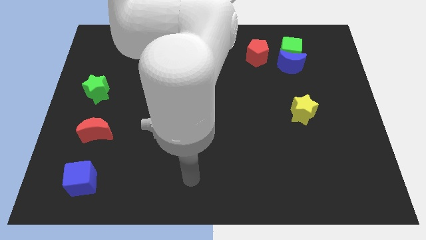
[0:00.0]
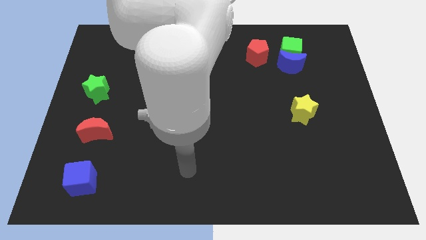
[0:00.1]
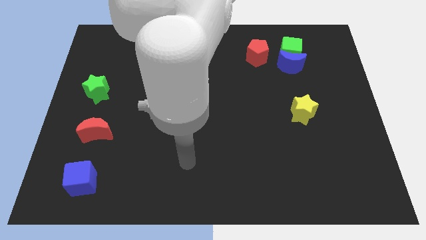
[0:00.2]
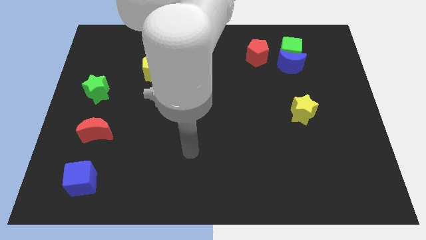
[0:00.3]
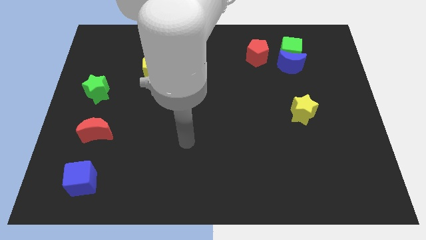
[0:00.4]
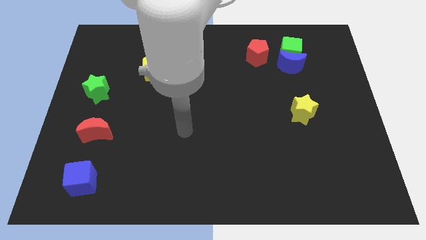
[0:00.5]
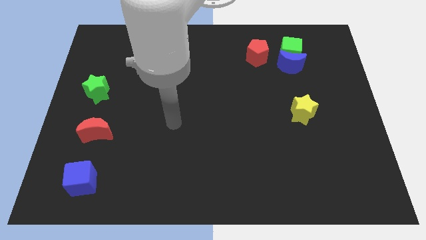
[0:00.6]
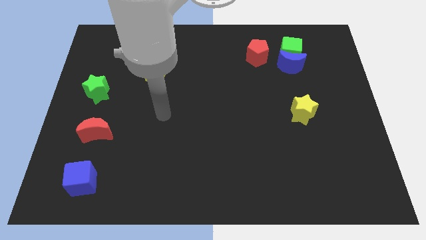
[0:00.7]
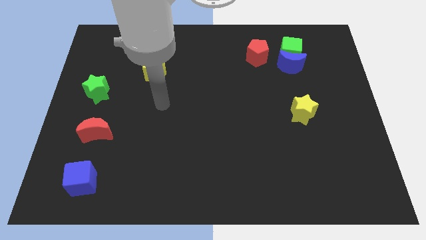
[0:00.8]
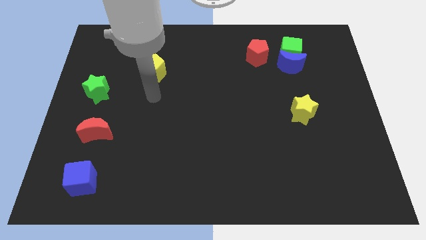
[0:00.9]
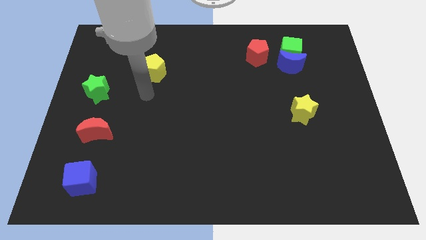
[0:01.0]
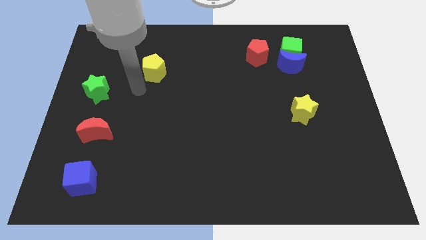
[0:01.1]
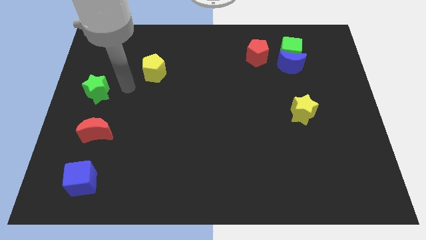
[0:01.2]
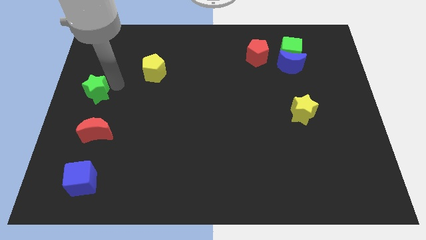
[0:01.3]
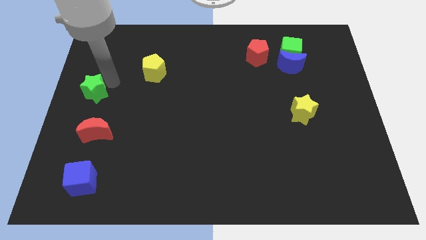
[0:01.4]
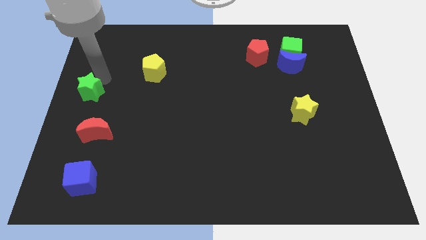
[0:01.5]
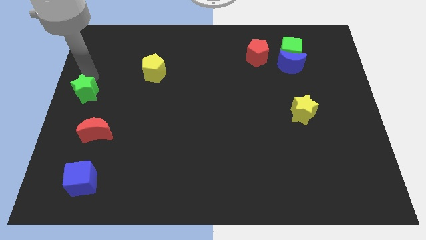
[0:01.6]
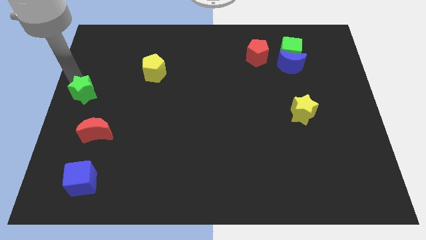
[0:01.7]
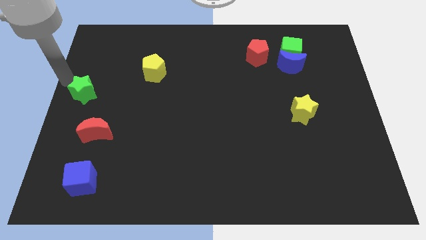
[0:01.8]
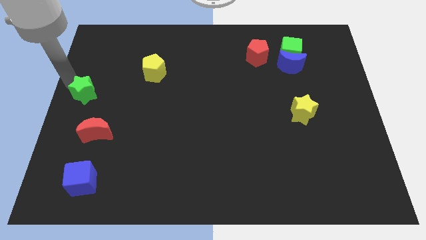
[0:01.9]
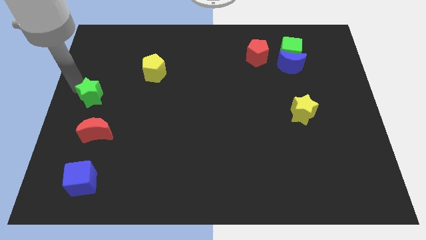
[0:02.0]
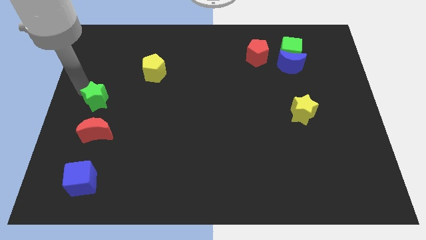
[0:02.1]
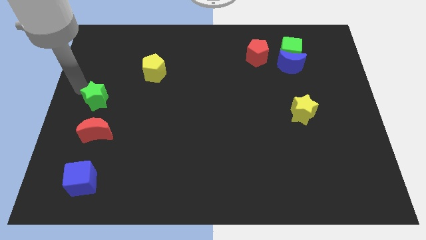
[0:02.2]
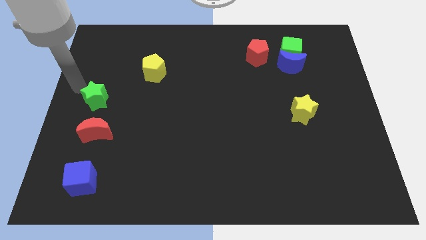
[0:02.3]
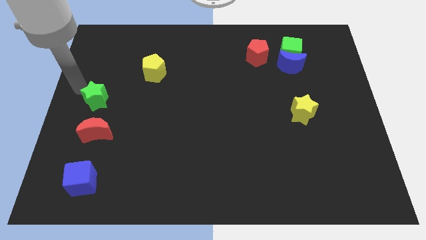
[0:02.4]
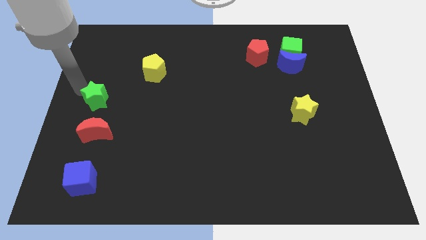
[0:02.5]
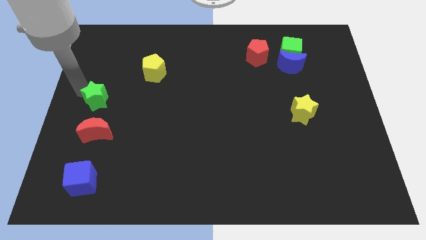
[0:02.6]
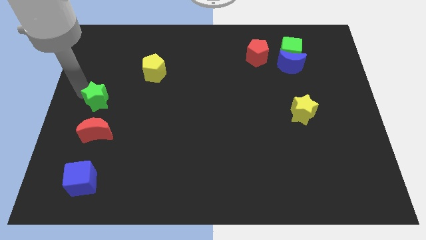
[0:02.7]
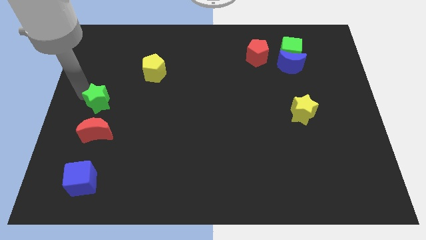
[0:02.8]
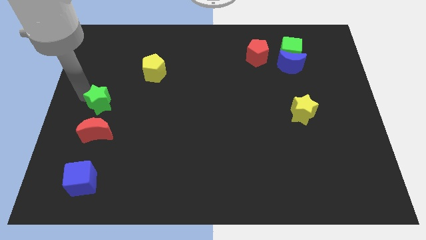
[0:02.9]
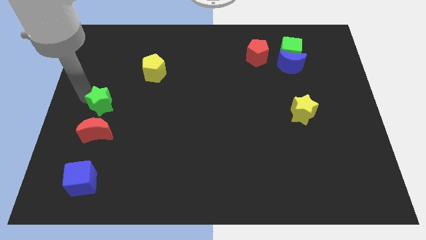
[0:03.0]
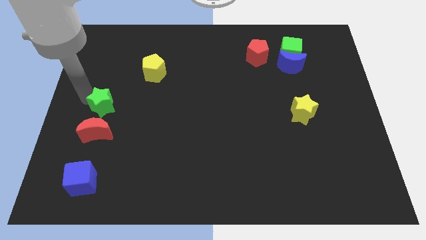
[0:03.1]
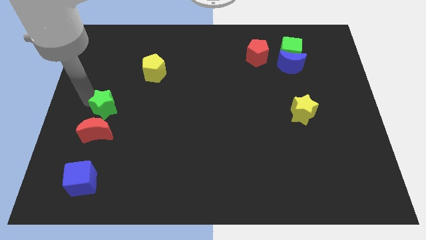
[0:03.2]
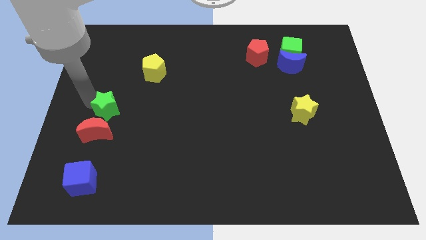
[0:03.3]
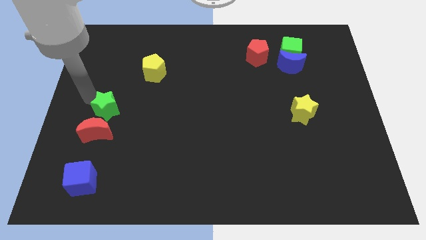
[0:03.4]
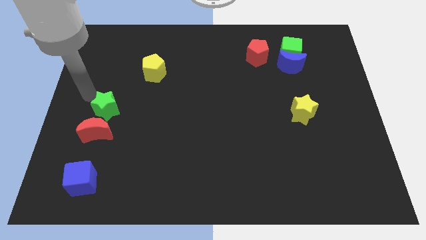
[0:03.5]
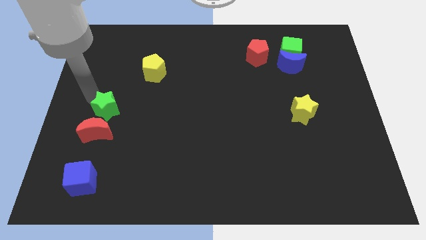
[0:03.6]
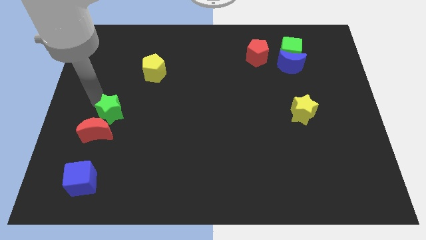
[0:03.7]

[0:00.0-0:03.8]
slightly move the green star downwards and then right

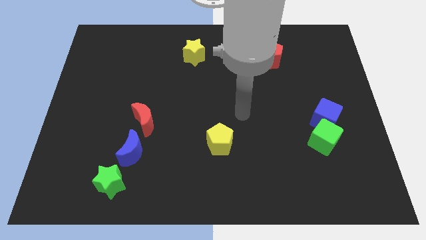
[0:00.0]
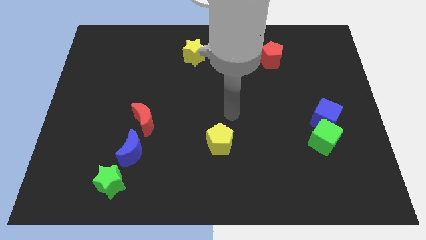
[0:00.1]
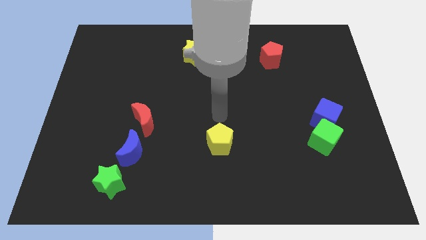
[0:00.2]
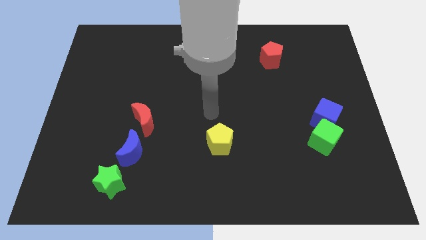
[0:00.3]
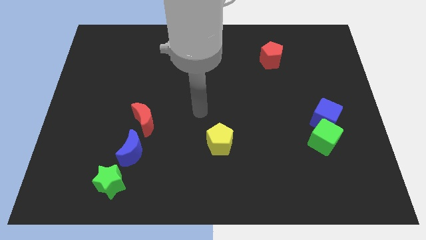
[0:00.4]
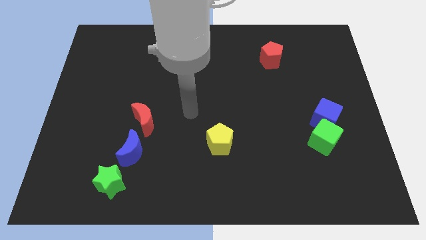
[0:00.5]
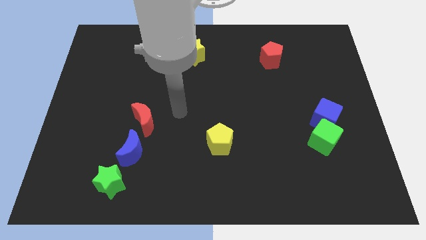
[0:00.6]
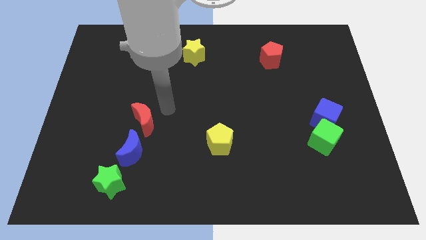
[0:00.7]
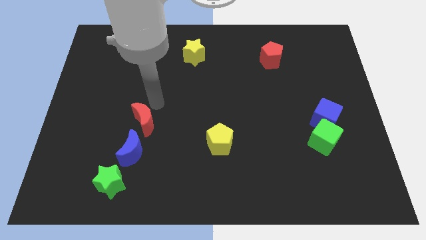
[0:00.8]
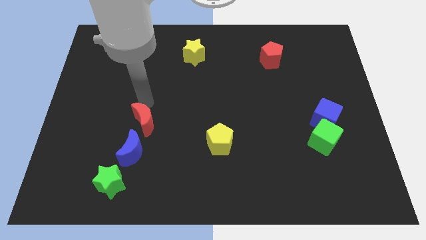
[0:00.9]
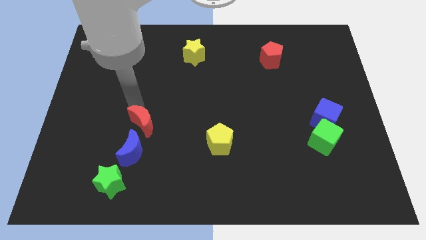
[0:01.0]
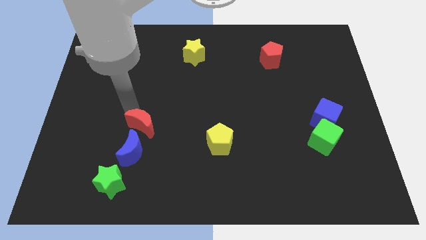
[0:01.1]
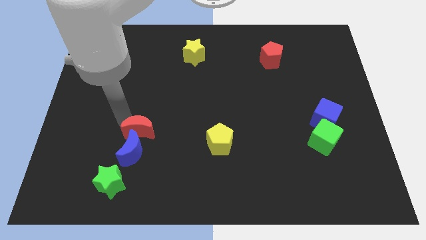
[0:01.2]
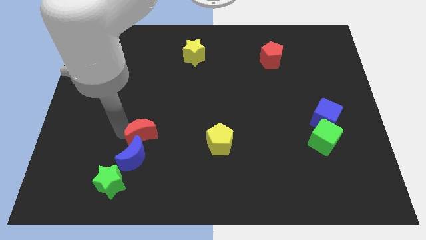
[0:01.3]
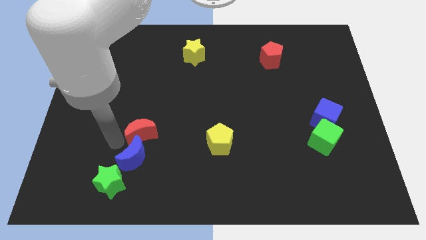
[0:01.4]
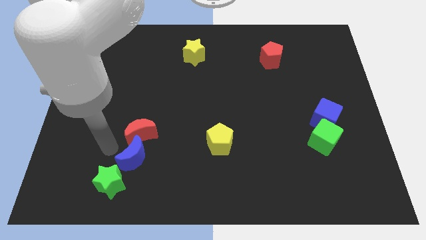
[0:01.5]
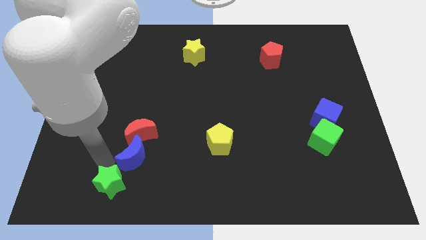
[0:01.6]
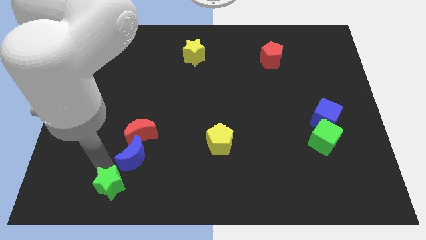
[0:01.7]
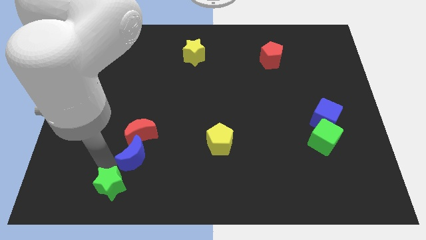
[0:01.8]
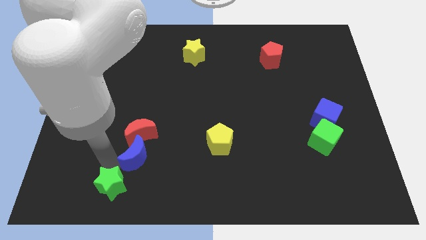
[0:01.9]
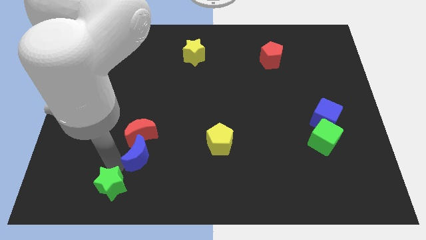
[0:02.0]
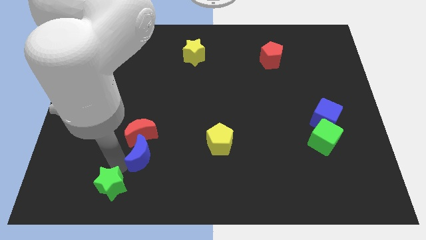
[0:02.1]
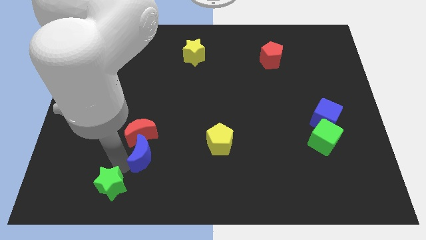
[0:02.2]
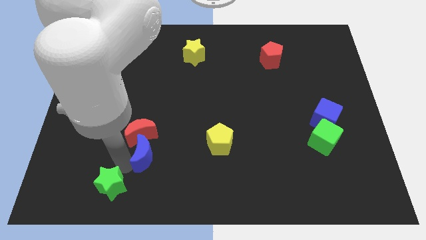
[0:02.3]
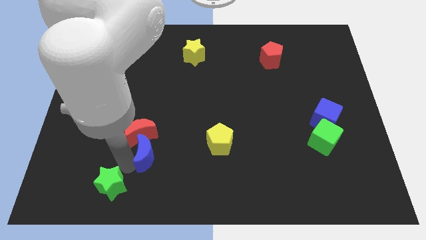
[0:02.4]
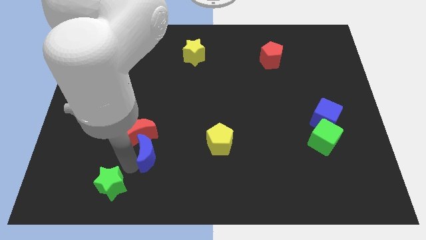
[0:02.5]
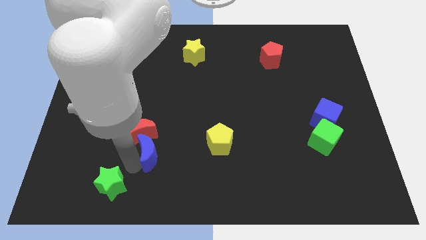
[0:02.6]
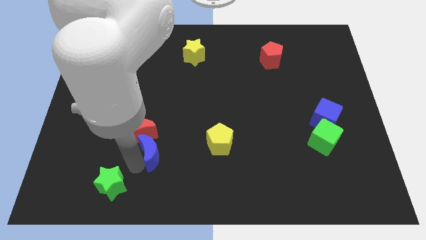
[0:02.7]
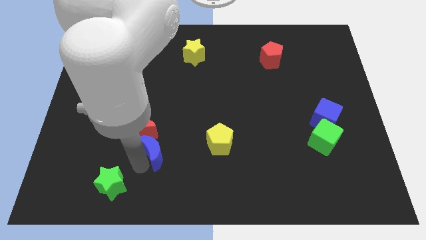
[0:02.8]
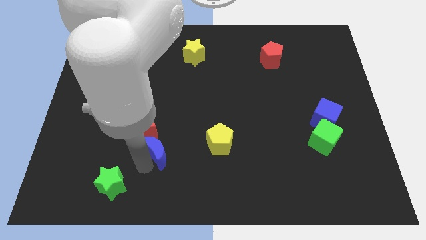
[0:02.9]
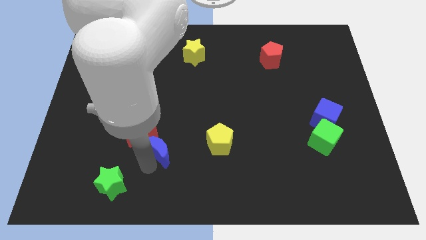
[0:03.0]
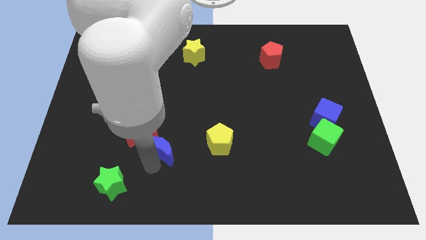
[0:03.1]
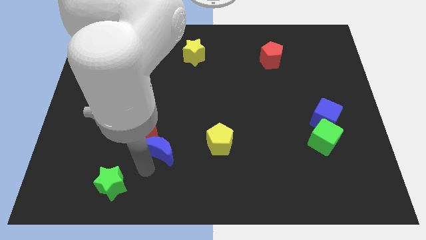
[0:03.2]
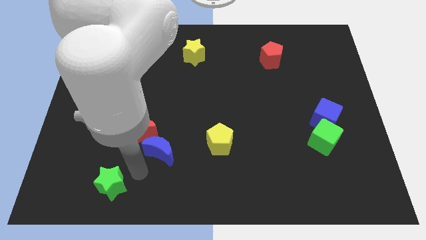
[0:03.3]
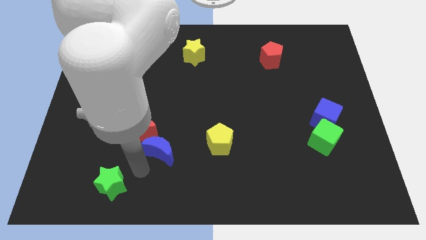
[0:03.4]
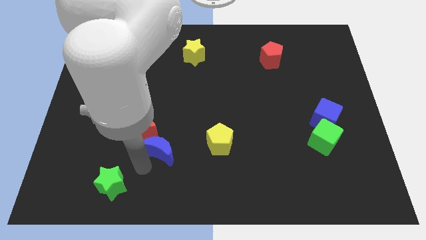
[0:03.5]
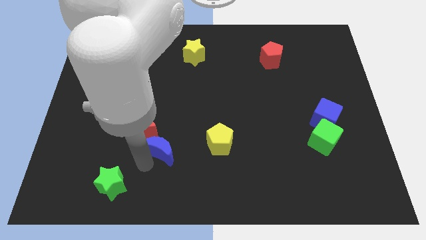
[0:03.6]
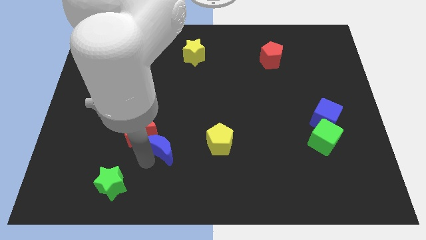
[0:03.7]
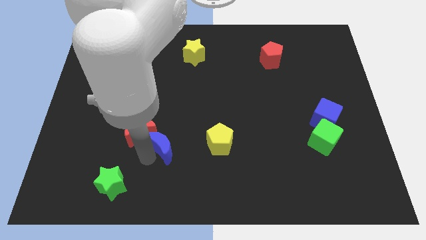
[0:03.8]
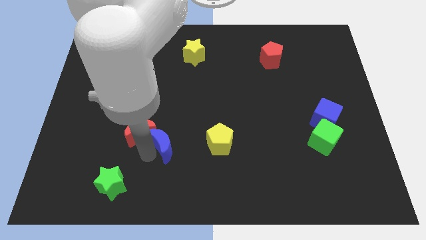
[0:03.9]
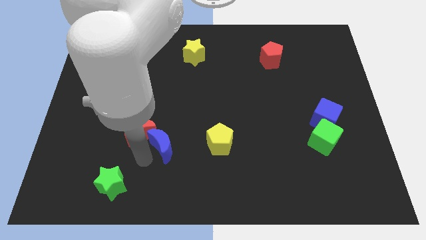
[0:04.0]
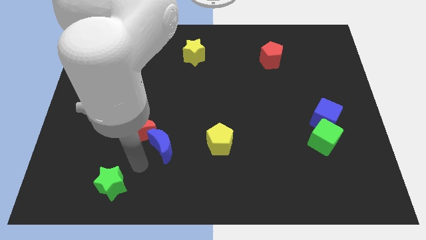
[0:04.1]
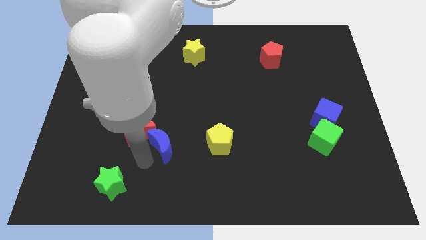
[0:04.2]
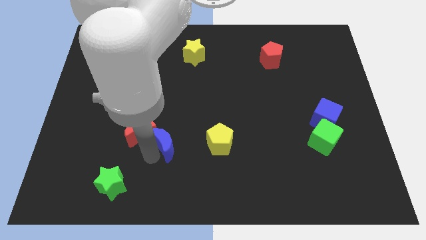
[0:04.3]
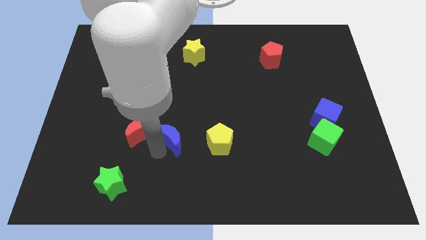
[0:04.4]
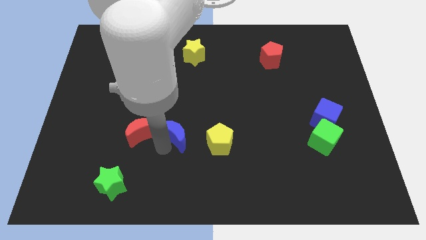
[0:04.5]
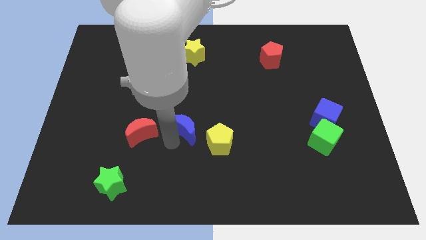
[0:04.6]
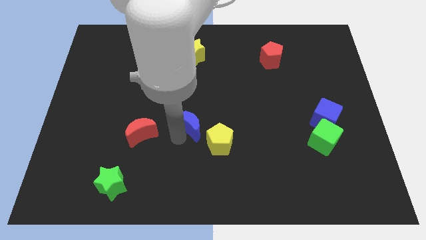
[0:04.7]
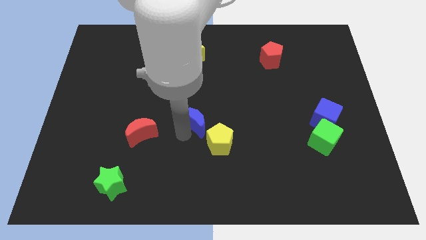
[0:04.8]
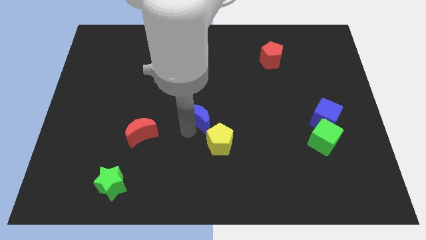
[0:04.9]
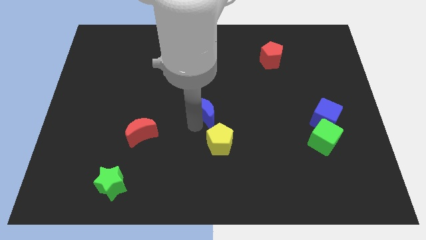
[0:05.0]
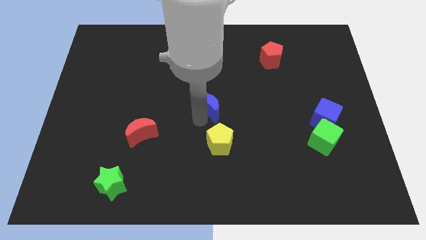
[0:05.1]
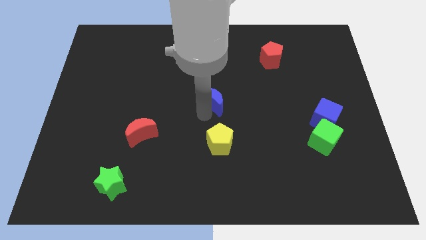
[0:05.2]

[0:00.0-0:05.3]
move the blue moon diagonally upwards and right
